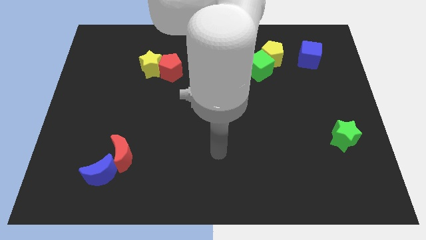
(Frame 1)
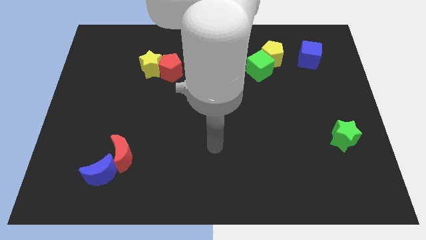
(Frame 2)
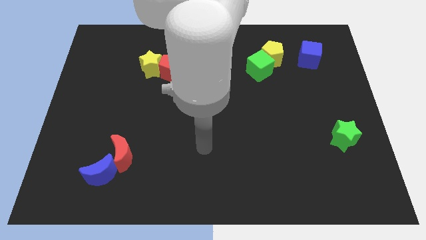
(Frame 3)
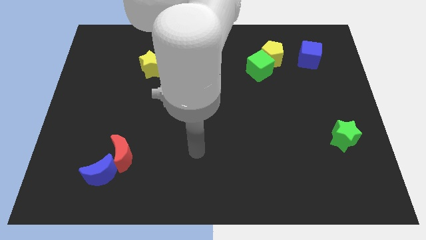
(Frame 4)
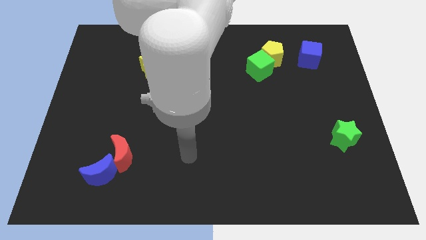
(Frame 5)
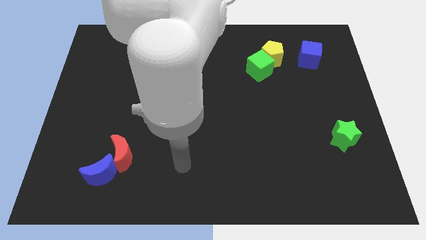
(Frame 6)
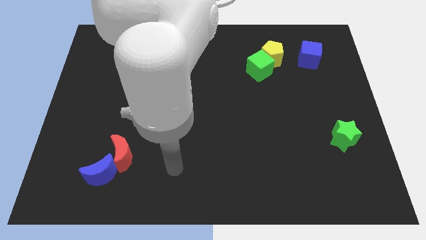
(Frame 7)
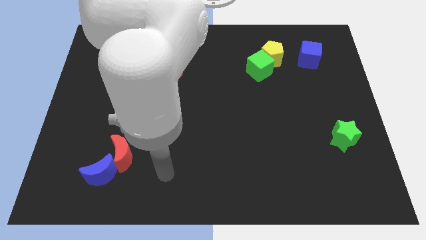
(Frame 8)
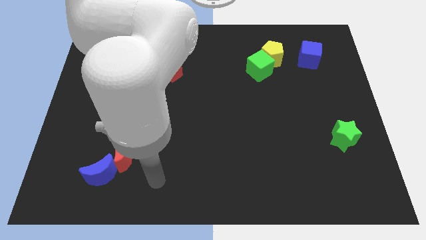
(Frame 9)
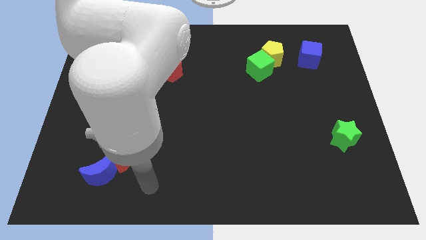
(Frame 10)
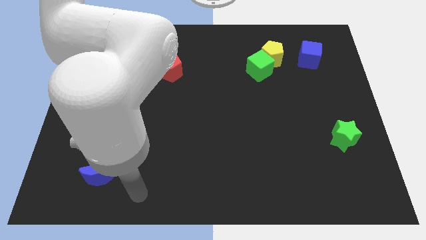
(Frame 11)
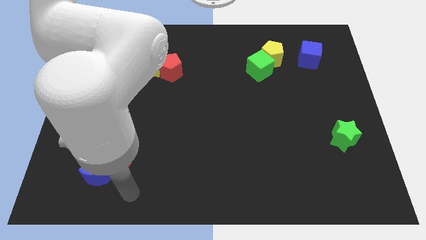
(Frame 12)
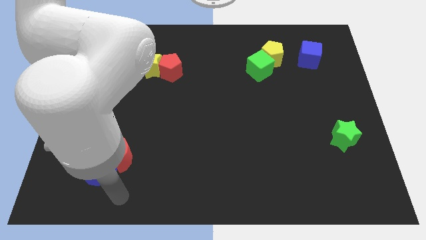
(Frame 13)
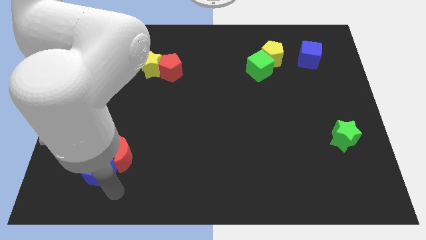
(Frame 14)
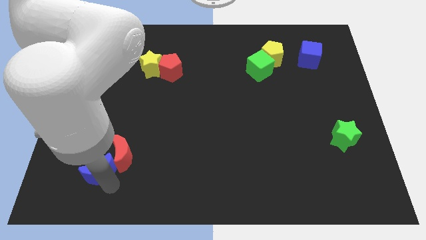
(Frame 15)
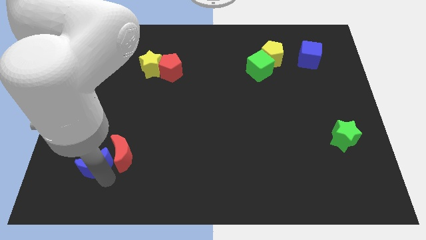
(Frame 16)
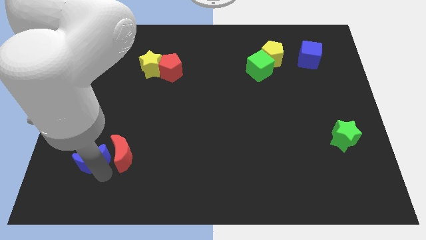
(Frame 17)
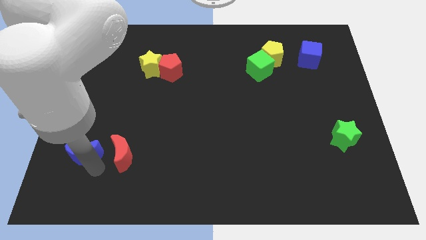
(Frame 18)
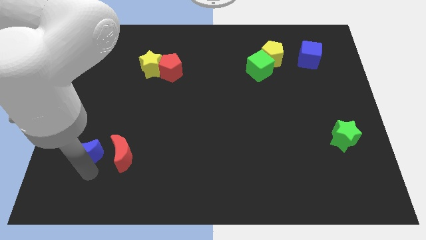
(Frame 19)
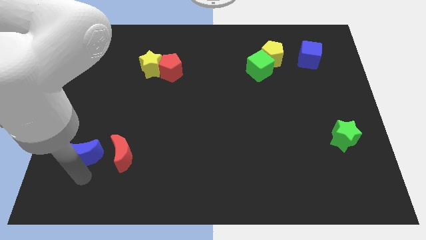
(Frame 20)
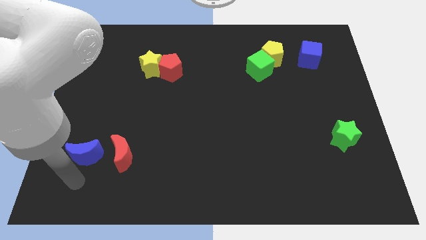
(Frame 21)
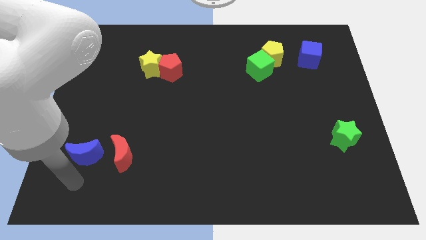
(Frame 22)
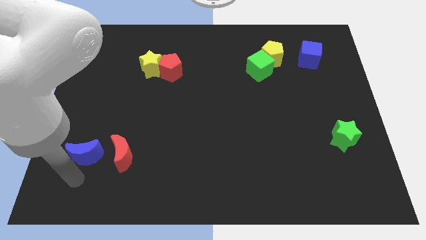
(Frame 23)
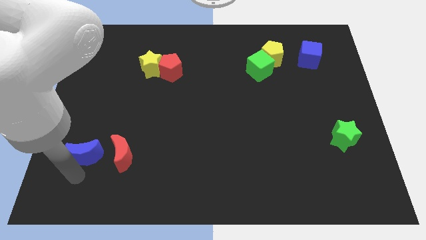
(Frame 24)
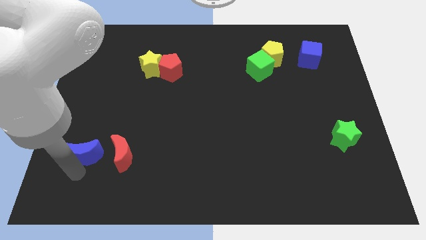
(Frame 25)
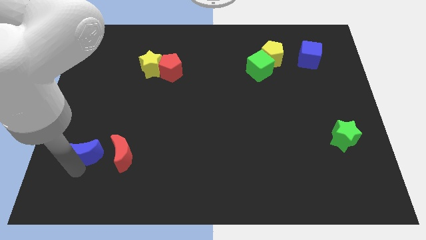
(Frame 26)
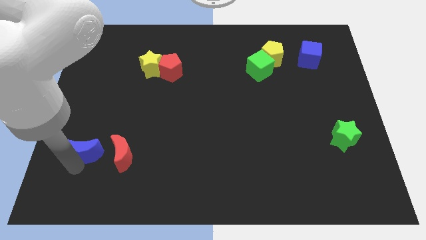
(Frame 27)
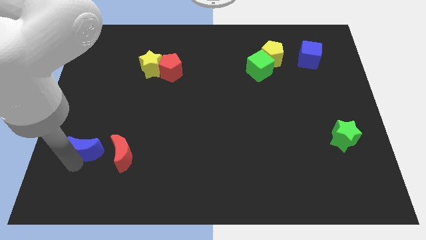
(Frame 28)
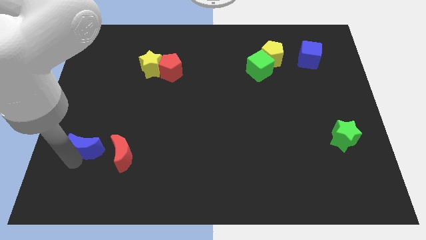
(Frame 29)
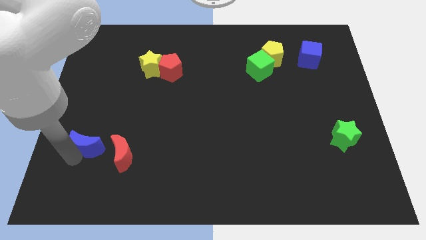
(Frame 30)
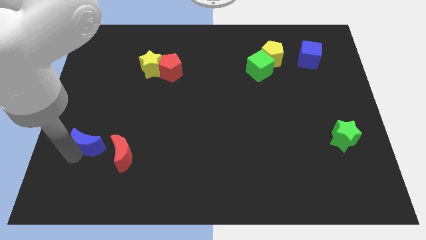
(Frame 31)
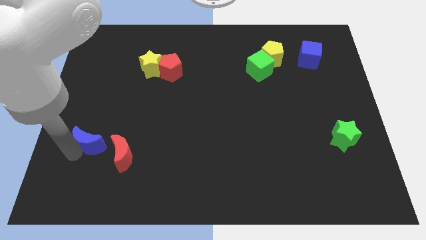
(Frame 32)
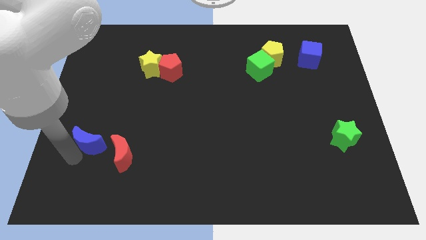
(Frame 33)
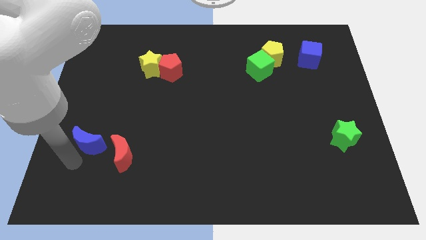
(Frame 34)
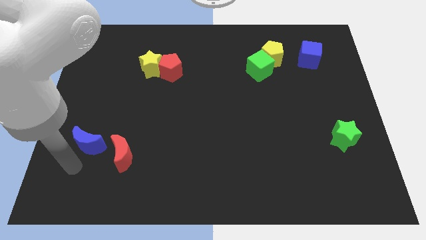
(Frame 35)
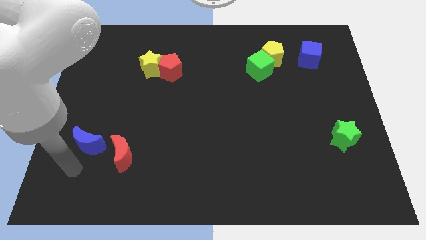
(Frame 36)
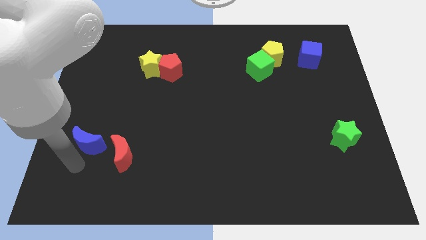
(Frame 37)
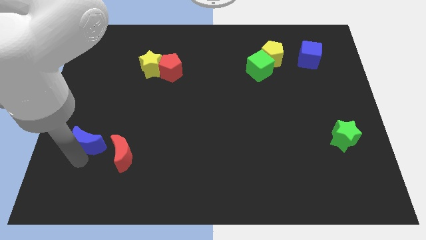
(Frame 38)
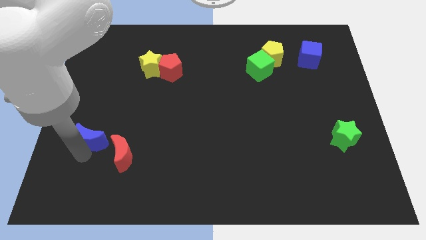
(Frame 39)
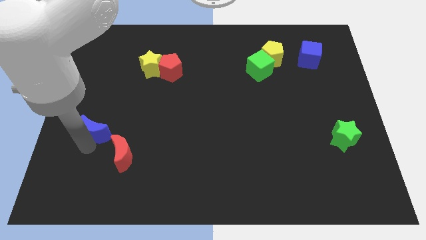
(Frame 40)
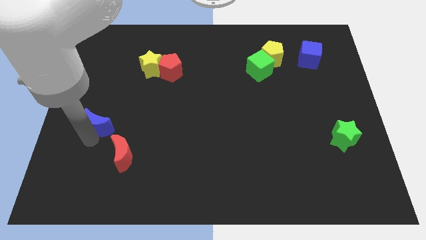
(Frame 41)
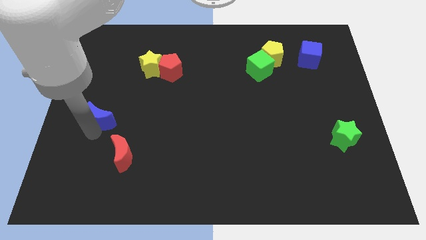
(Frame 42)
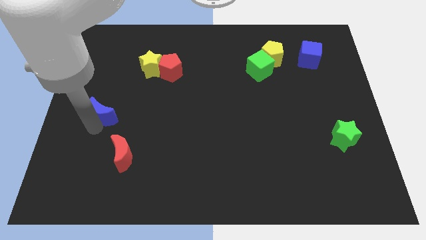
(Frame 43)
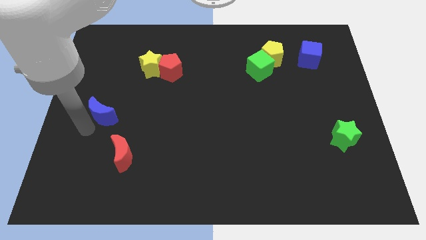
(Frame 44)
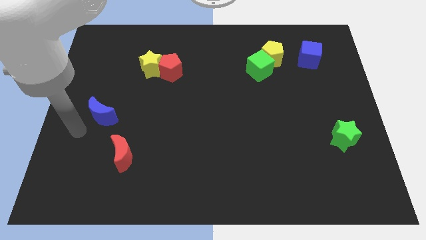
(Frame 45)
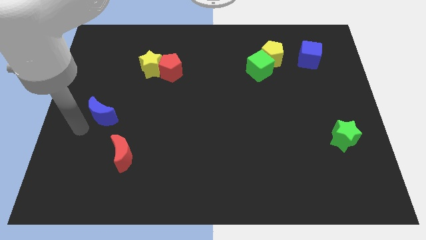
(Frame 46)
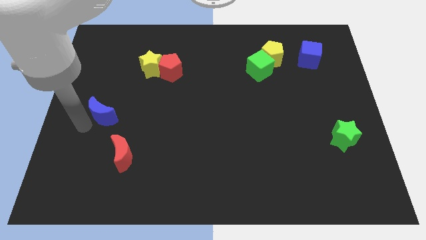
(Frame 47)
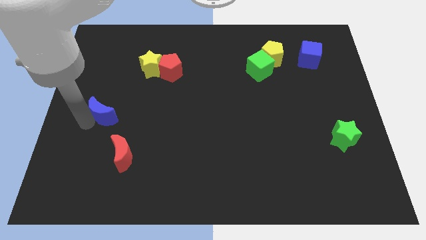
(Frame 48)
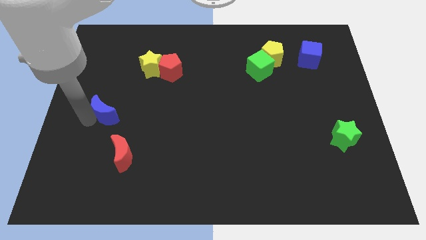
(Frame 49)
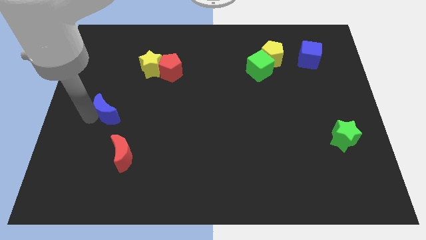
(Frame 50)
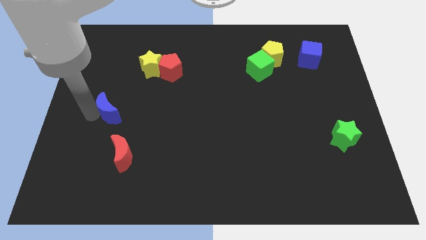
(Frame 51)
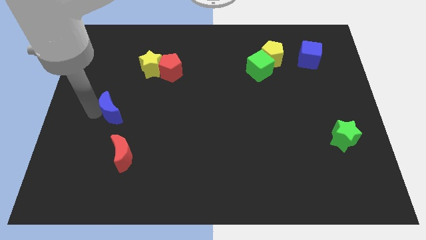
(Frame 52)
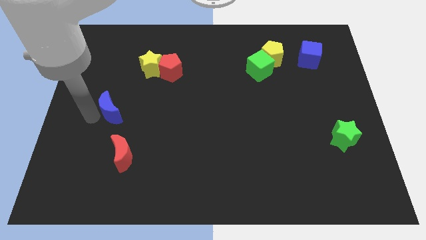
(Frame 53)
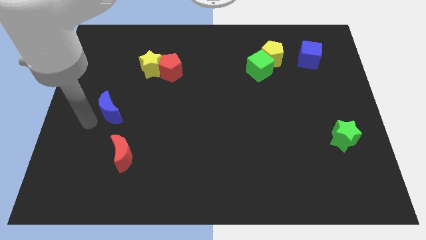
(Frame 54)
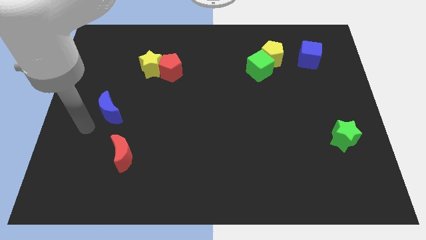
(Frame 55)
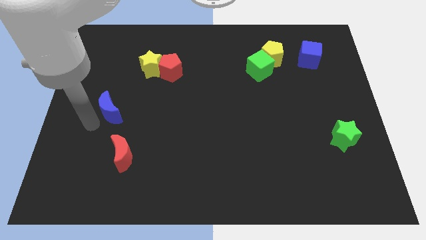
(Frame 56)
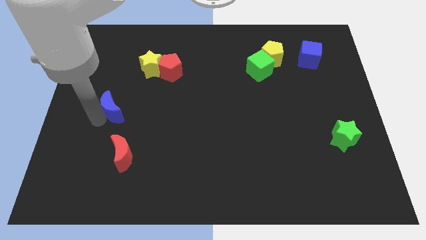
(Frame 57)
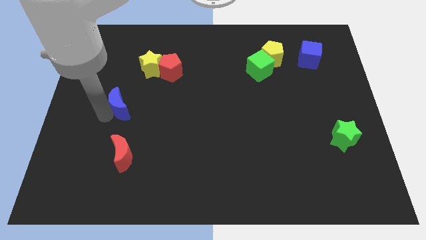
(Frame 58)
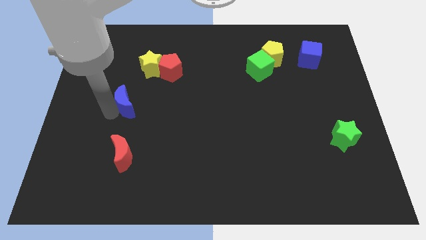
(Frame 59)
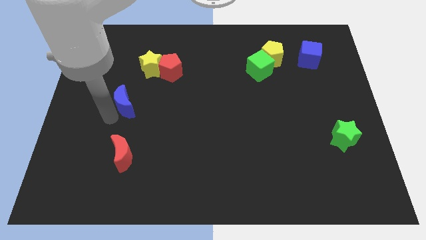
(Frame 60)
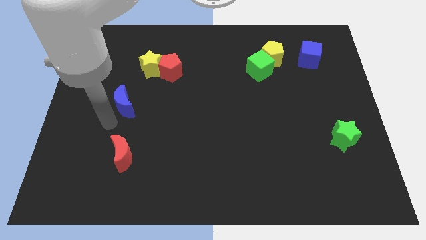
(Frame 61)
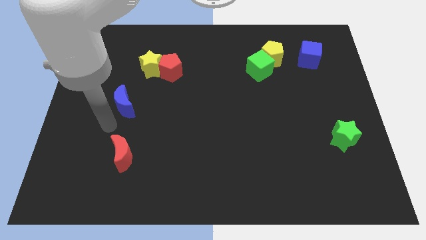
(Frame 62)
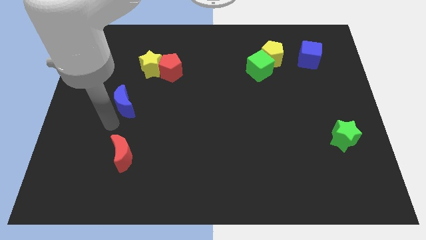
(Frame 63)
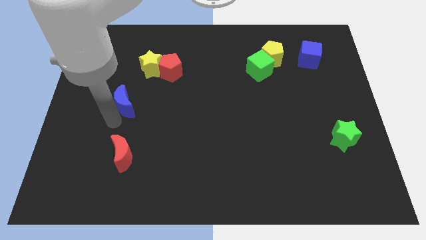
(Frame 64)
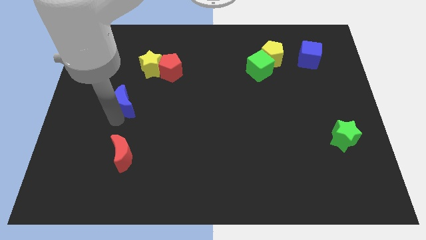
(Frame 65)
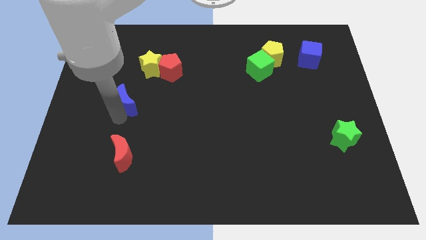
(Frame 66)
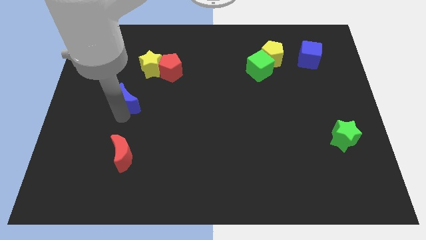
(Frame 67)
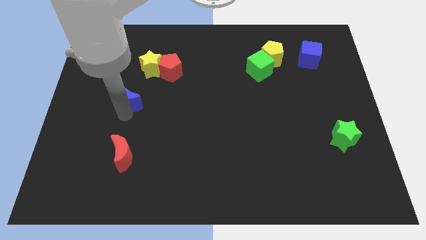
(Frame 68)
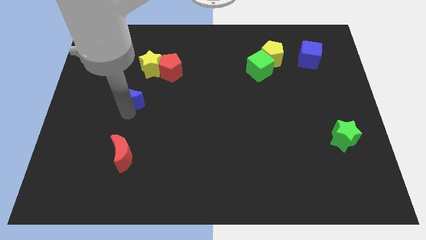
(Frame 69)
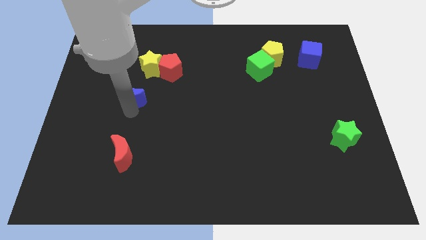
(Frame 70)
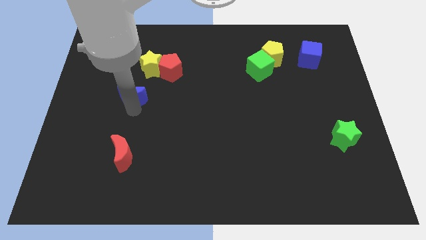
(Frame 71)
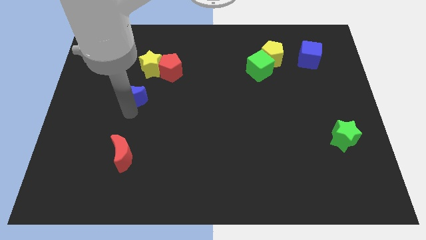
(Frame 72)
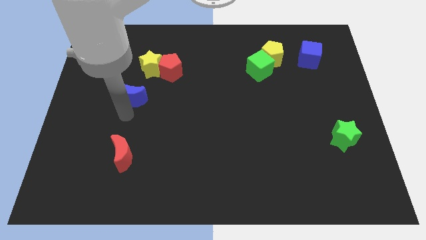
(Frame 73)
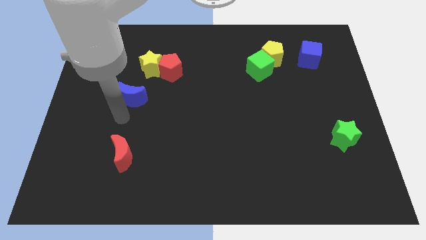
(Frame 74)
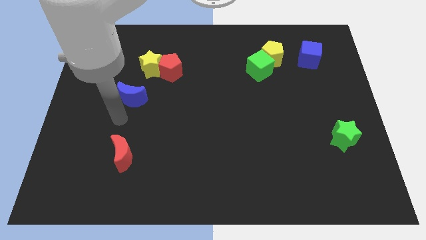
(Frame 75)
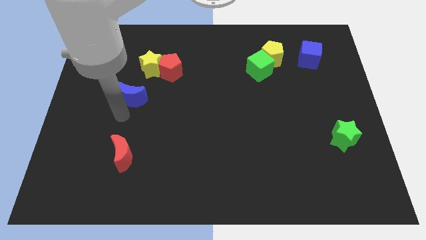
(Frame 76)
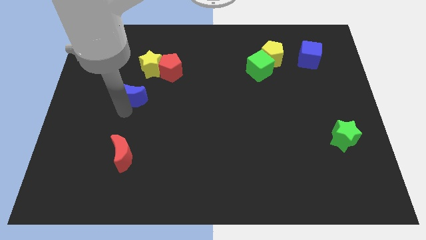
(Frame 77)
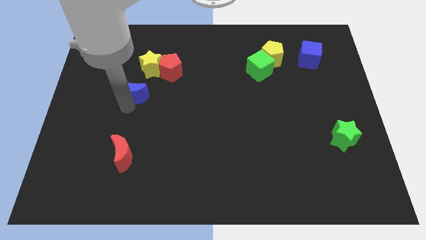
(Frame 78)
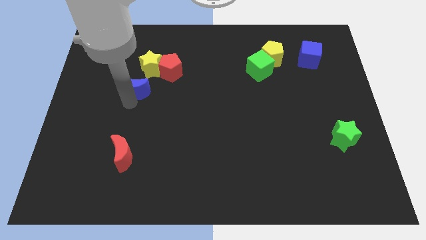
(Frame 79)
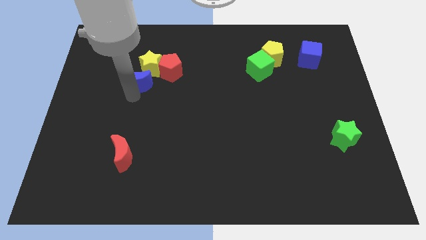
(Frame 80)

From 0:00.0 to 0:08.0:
slide the blue moon towards the yellow star

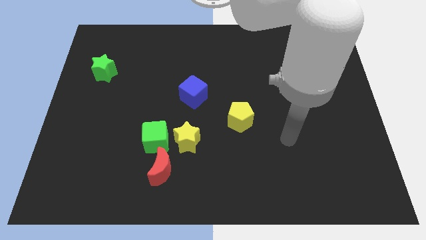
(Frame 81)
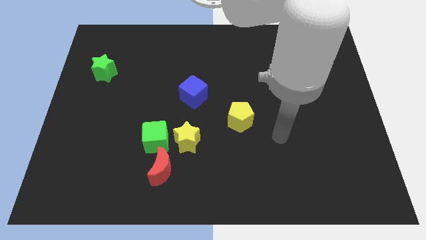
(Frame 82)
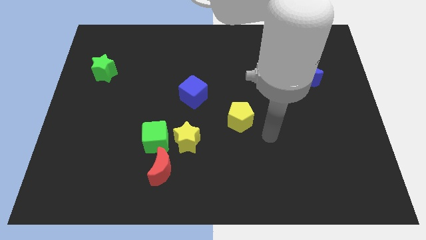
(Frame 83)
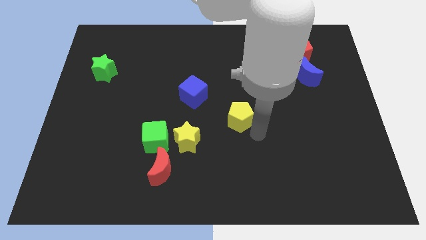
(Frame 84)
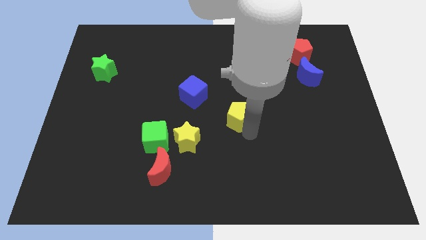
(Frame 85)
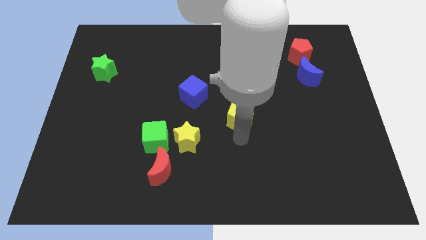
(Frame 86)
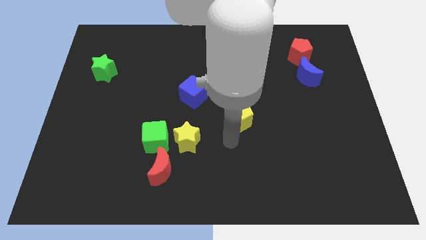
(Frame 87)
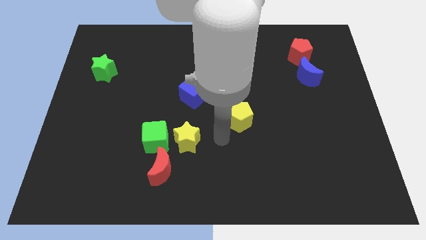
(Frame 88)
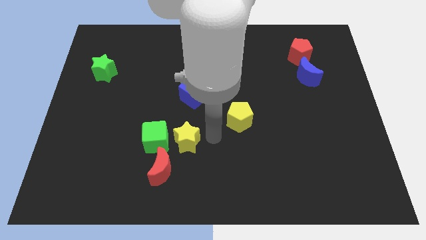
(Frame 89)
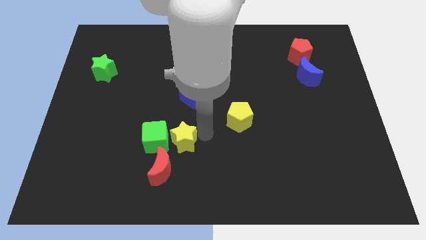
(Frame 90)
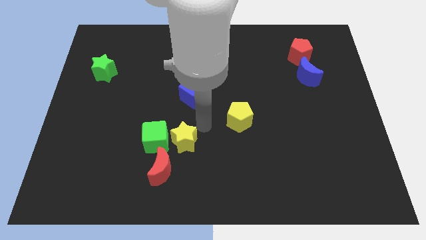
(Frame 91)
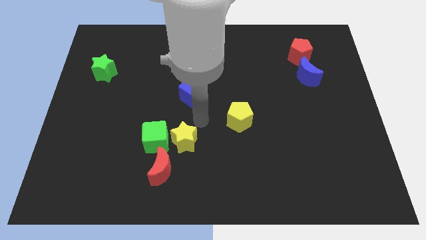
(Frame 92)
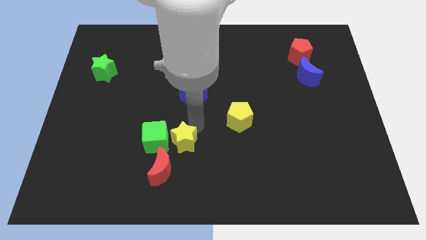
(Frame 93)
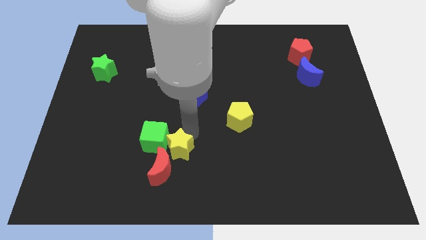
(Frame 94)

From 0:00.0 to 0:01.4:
push the yellow star to the red moon
